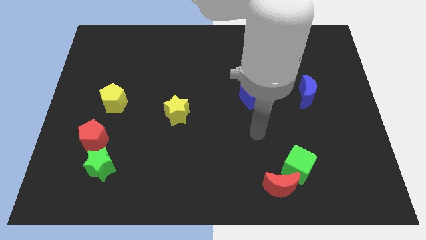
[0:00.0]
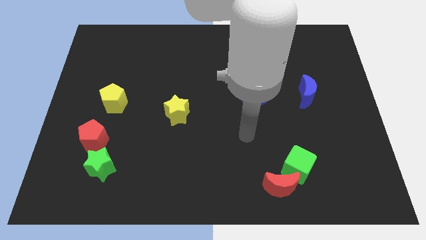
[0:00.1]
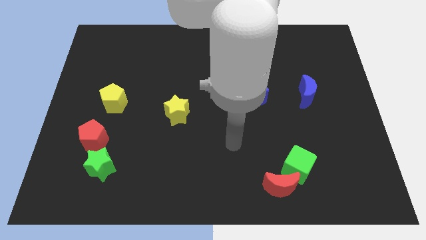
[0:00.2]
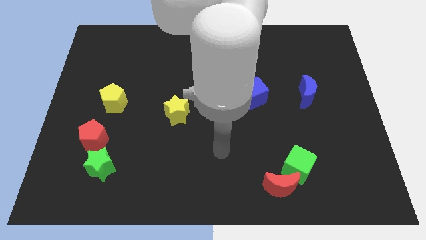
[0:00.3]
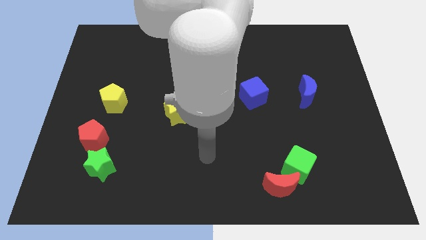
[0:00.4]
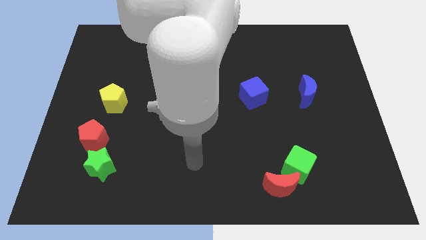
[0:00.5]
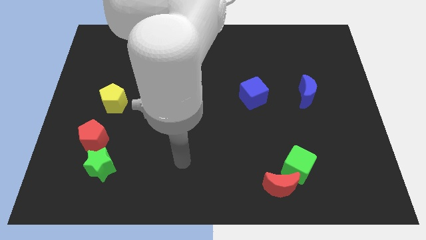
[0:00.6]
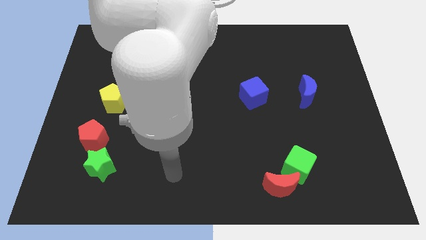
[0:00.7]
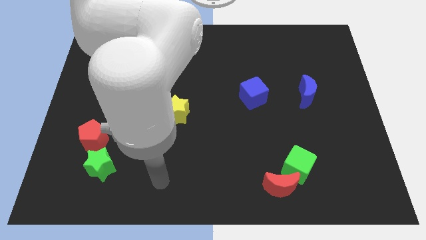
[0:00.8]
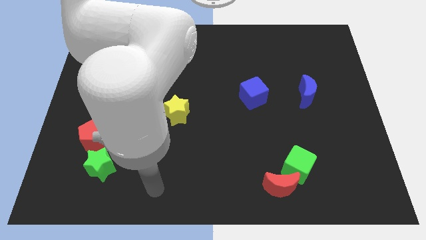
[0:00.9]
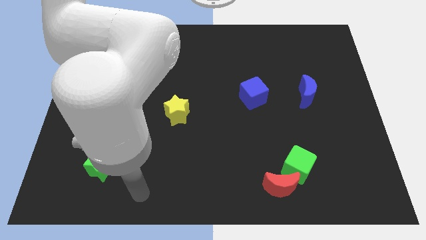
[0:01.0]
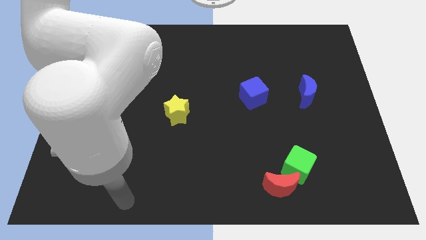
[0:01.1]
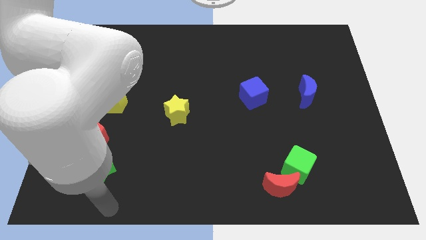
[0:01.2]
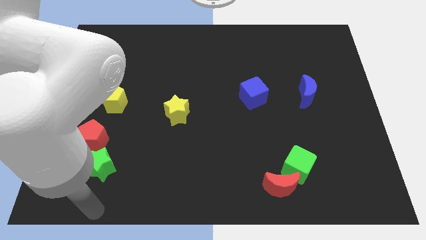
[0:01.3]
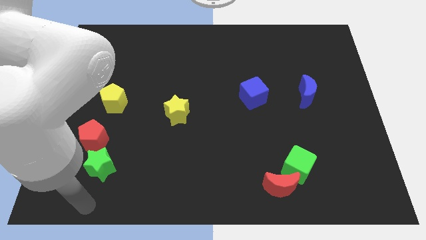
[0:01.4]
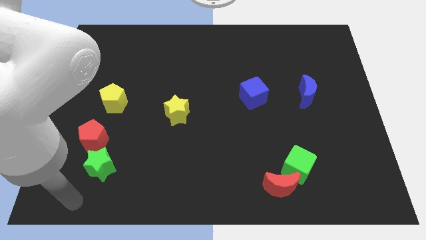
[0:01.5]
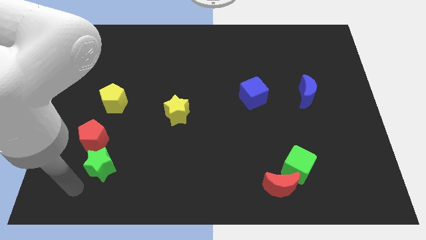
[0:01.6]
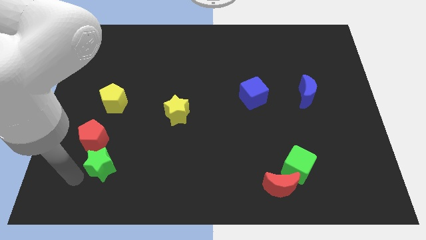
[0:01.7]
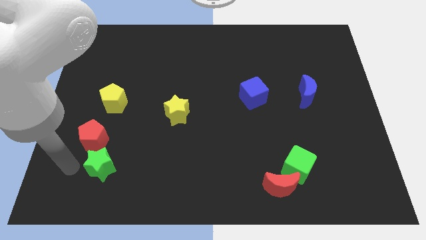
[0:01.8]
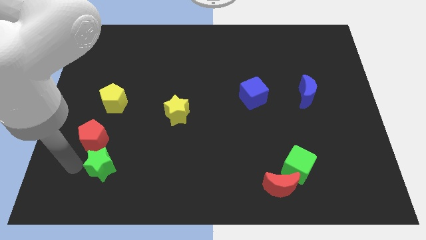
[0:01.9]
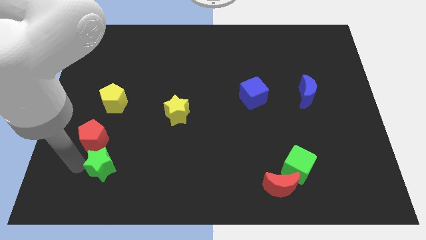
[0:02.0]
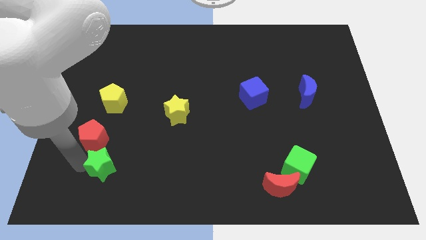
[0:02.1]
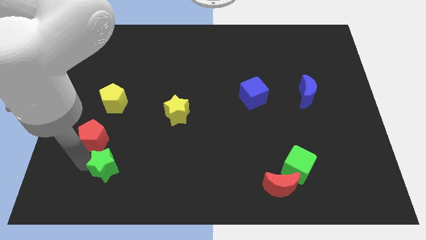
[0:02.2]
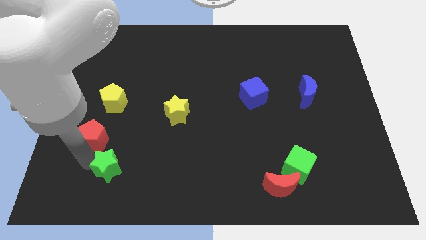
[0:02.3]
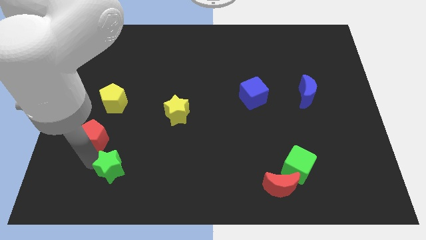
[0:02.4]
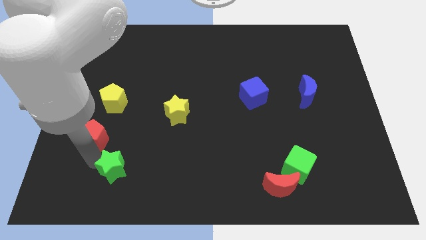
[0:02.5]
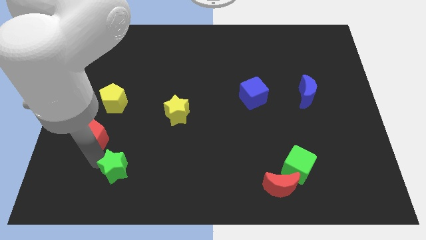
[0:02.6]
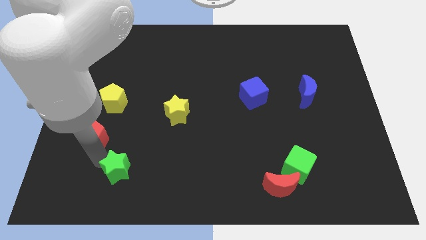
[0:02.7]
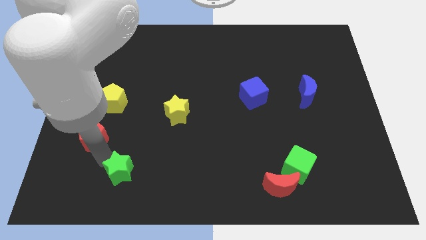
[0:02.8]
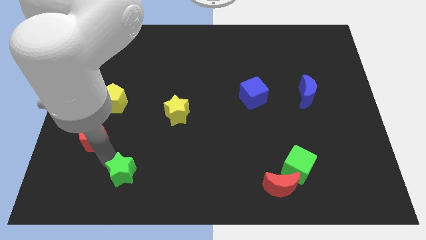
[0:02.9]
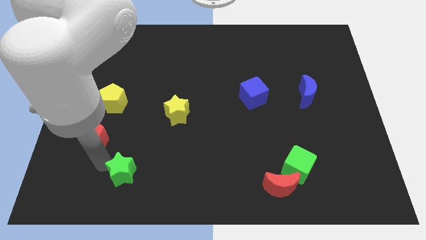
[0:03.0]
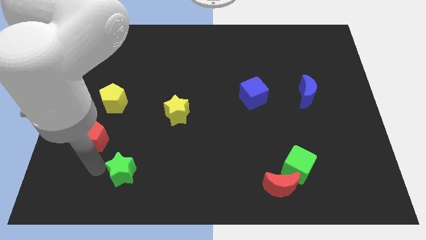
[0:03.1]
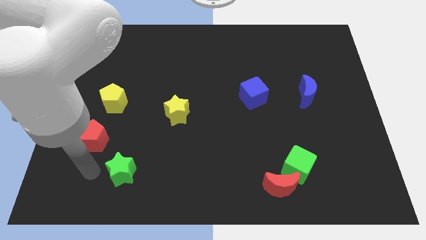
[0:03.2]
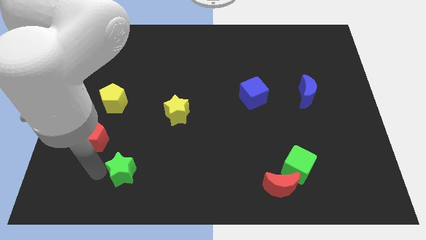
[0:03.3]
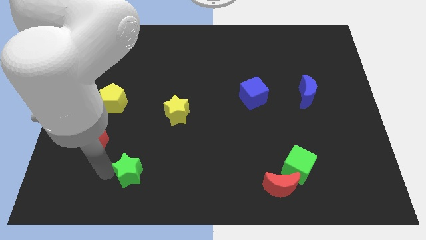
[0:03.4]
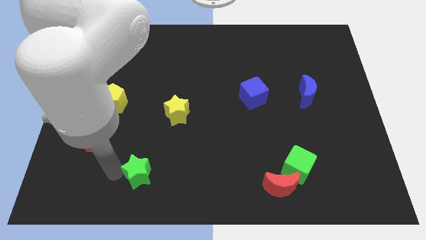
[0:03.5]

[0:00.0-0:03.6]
slightly move the green star right

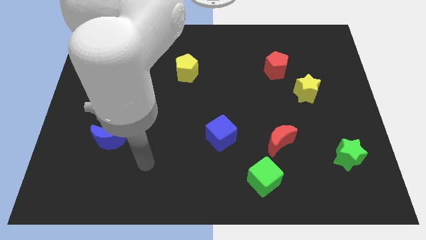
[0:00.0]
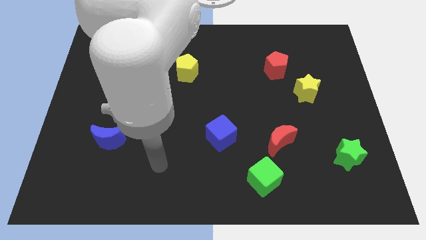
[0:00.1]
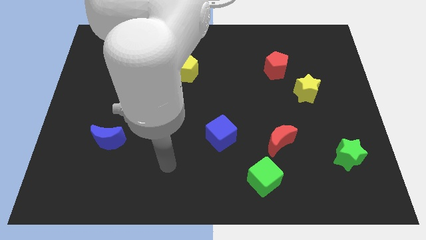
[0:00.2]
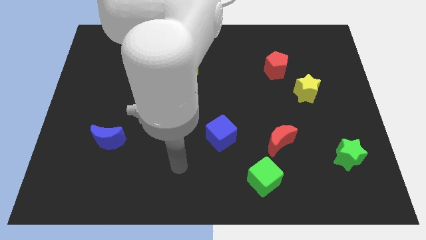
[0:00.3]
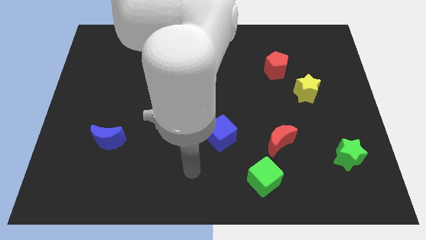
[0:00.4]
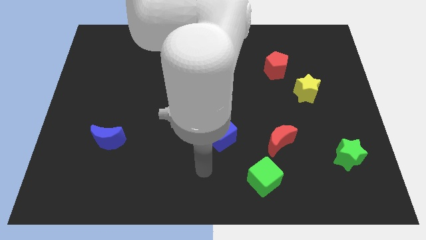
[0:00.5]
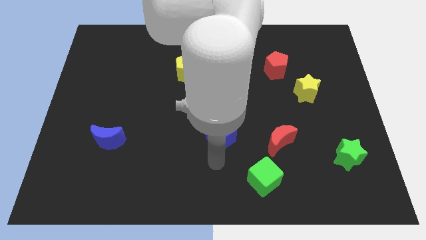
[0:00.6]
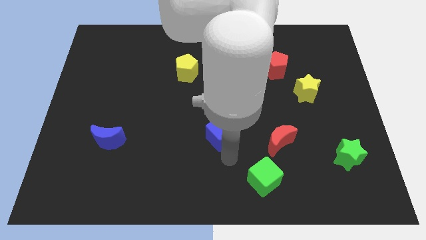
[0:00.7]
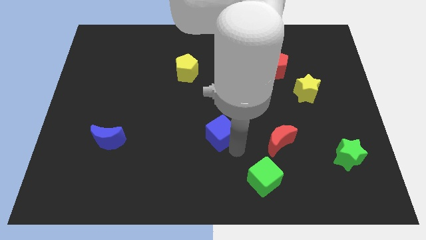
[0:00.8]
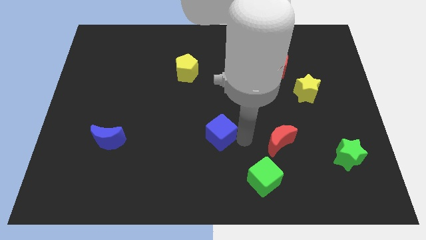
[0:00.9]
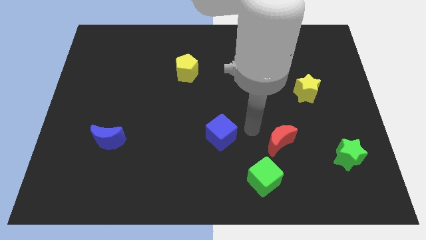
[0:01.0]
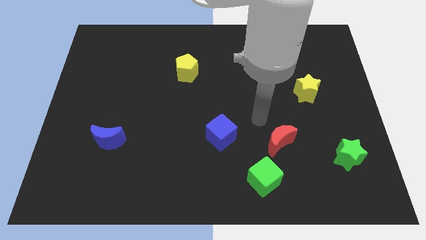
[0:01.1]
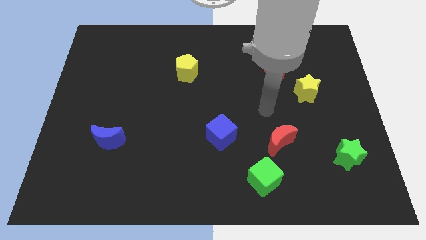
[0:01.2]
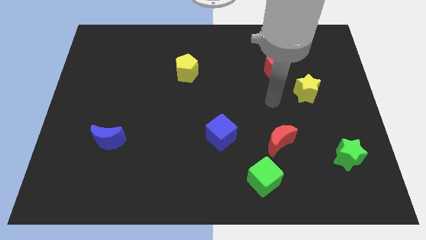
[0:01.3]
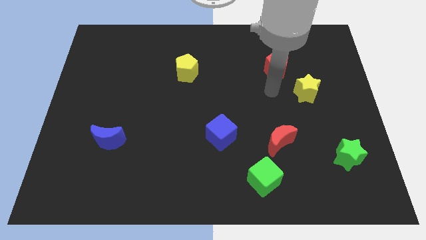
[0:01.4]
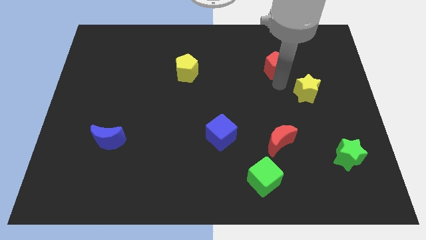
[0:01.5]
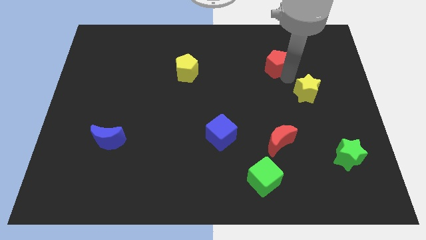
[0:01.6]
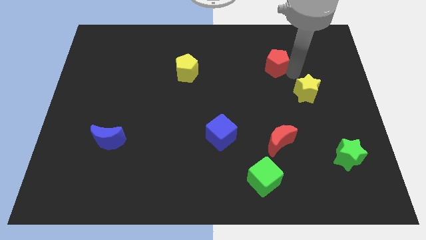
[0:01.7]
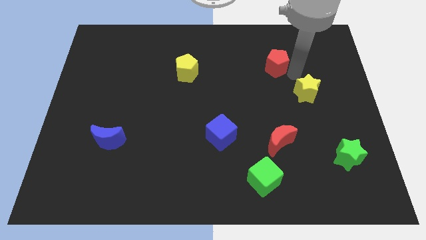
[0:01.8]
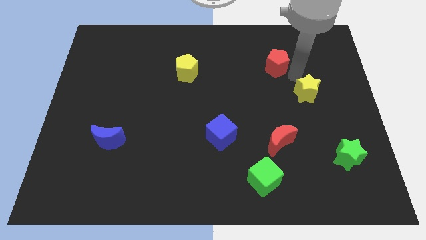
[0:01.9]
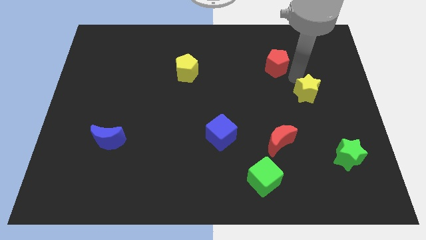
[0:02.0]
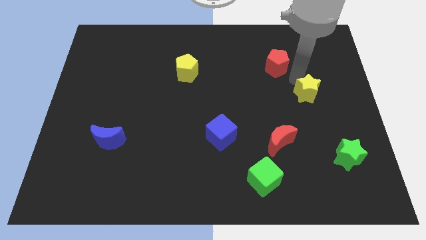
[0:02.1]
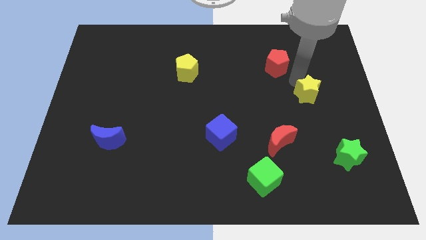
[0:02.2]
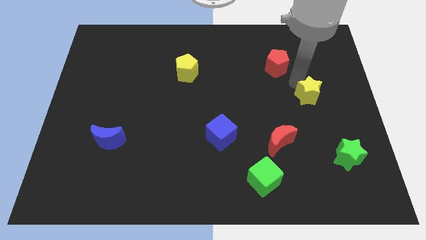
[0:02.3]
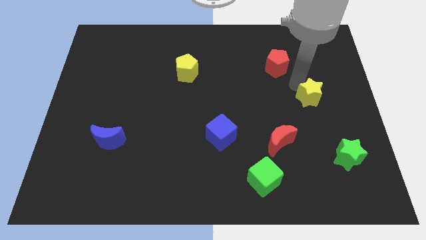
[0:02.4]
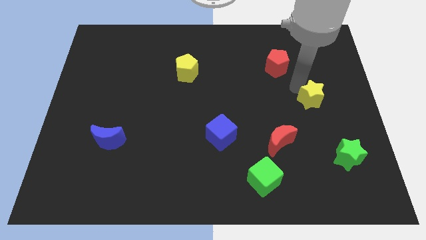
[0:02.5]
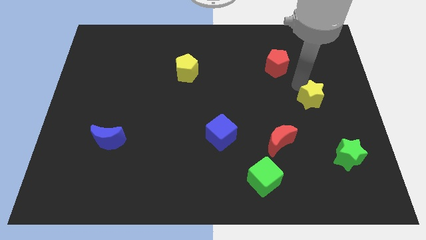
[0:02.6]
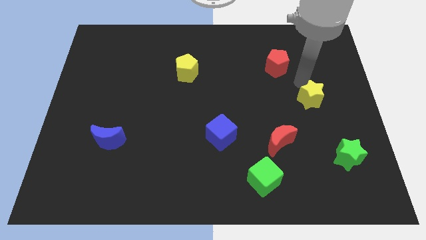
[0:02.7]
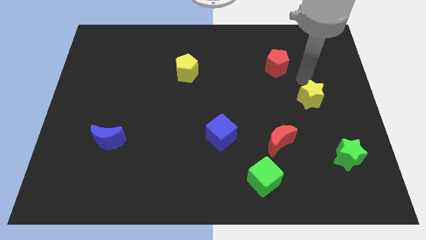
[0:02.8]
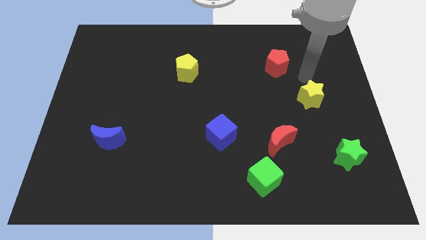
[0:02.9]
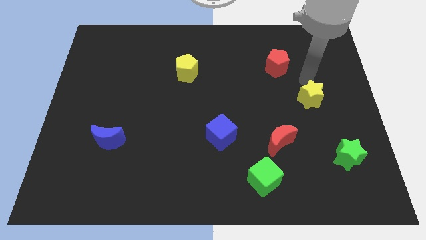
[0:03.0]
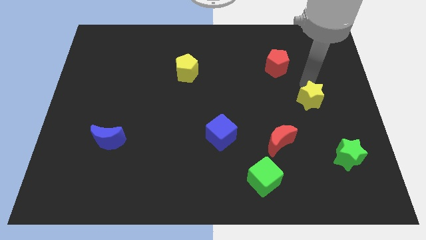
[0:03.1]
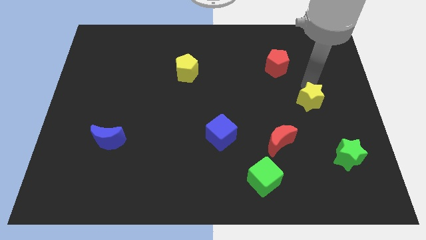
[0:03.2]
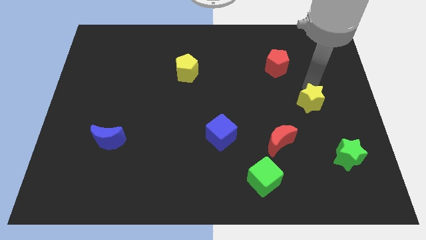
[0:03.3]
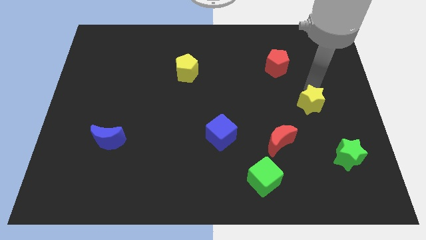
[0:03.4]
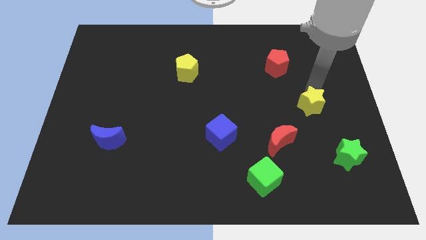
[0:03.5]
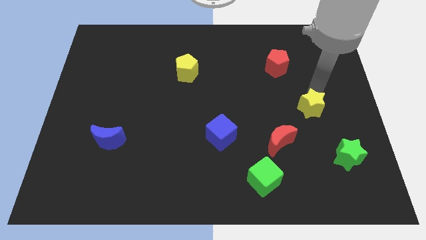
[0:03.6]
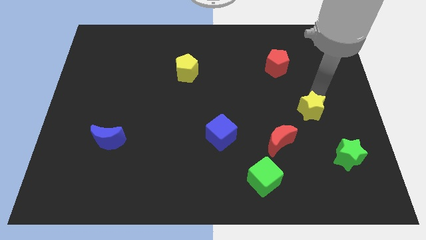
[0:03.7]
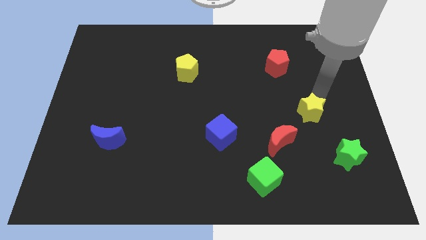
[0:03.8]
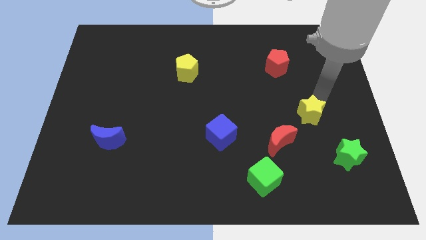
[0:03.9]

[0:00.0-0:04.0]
slightly push the yellow star down

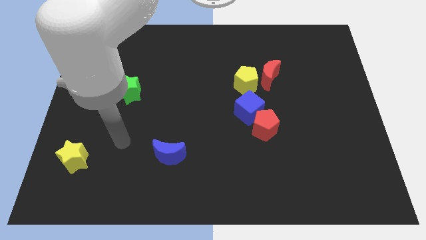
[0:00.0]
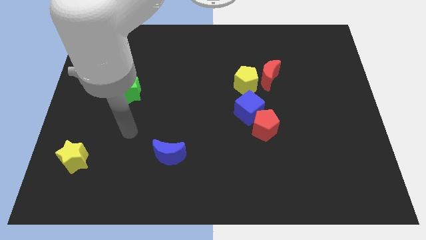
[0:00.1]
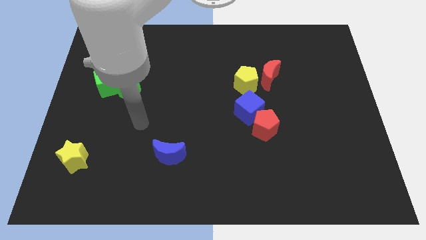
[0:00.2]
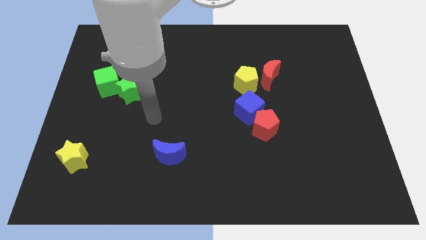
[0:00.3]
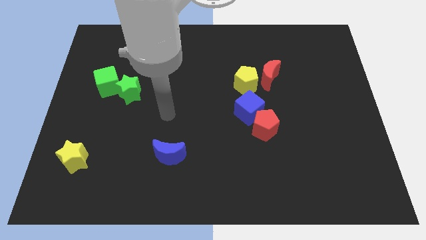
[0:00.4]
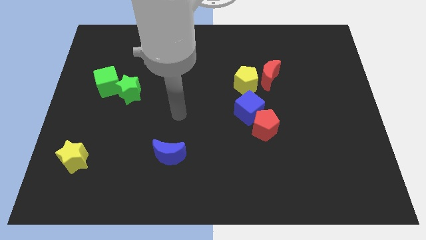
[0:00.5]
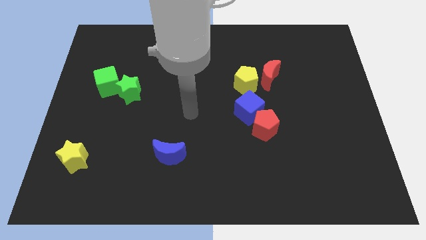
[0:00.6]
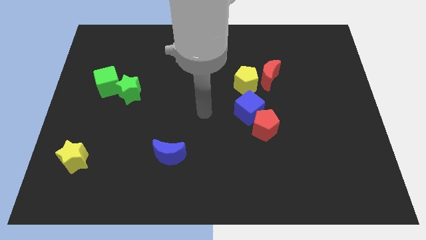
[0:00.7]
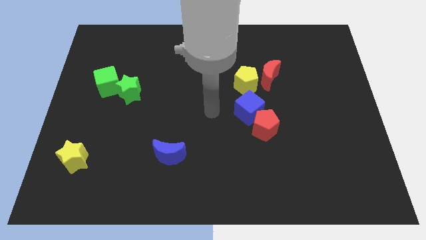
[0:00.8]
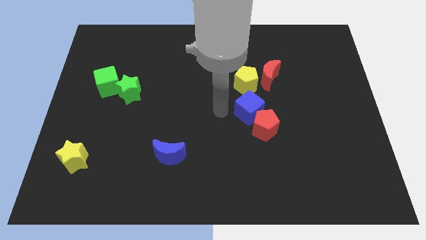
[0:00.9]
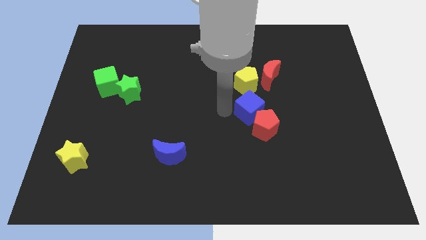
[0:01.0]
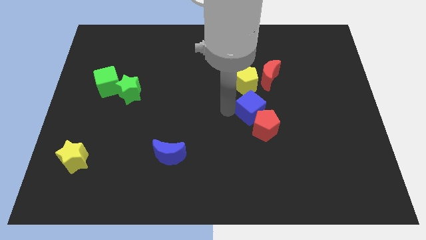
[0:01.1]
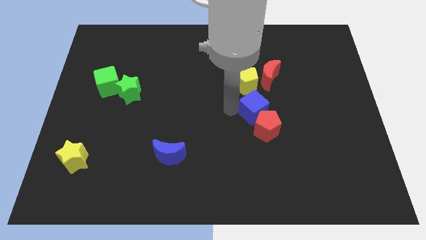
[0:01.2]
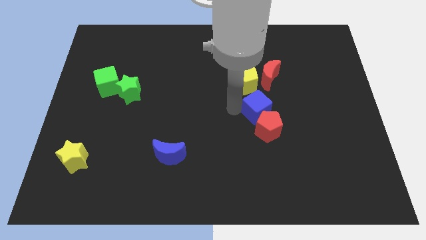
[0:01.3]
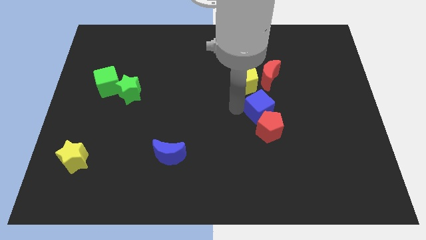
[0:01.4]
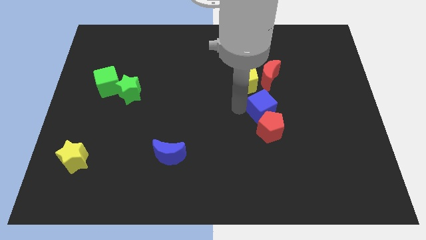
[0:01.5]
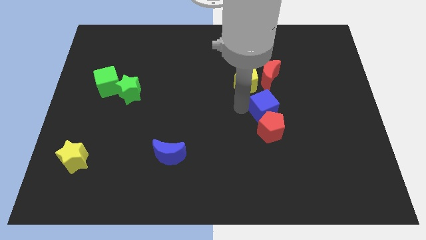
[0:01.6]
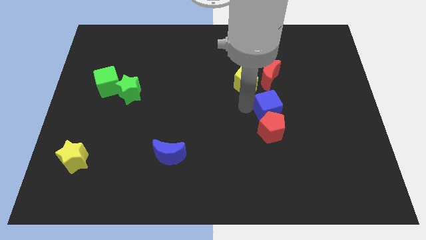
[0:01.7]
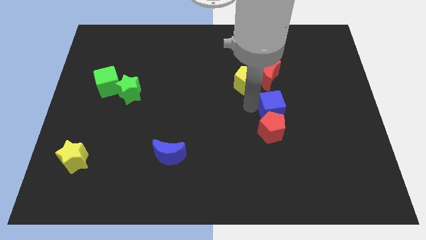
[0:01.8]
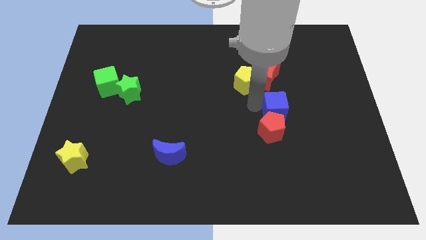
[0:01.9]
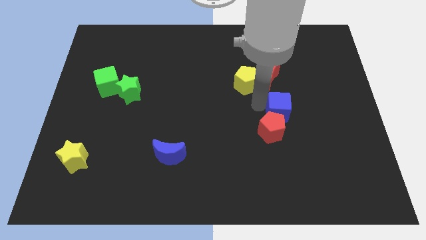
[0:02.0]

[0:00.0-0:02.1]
slightly slide the blue cube to the right
